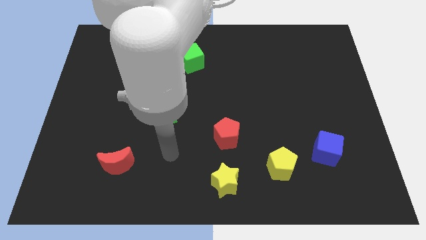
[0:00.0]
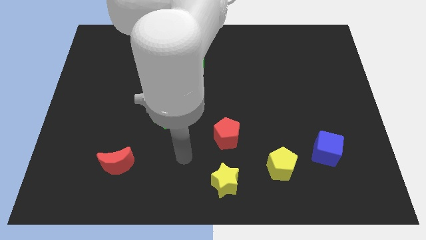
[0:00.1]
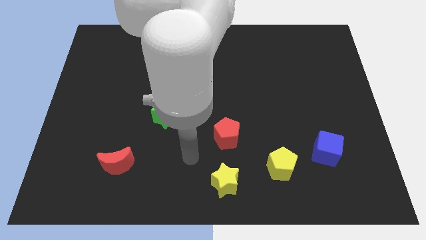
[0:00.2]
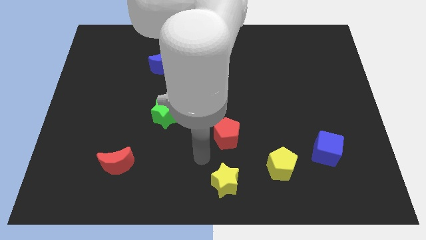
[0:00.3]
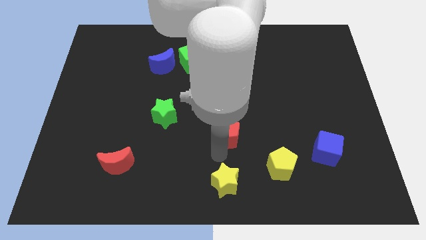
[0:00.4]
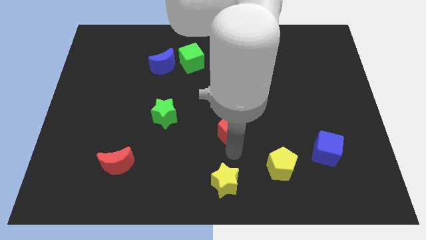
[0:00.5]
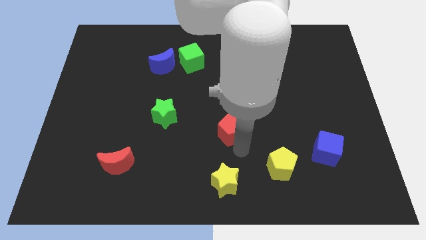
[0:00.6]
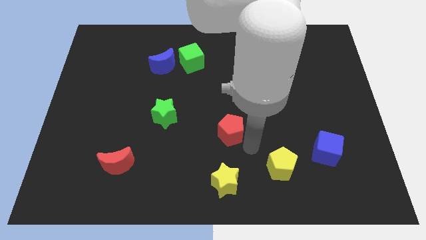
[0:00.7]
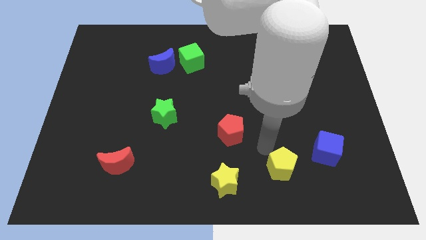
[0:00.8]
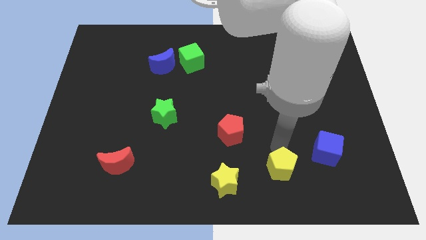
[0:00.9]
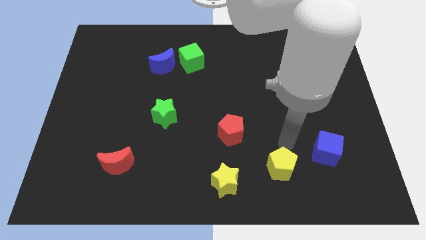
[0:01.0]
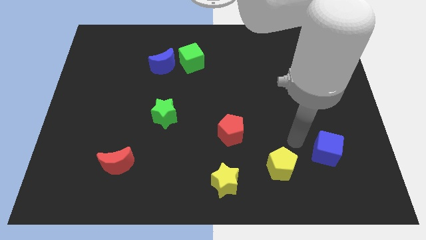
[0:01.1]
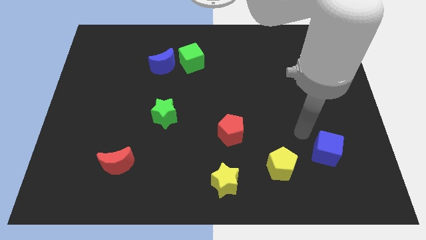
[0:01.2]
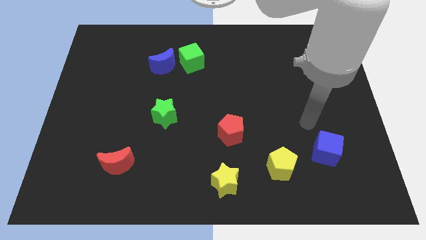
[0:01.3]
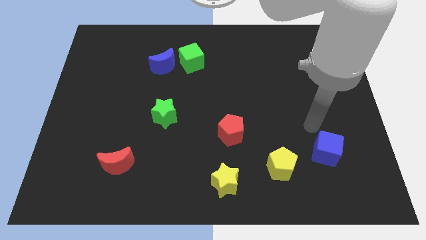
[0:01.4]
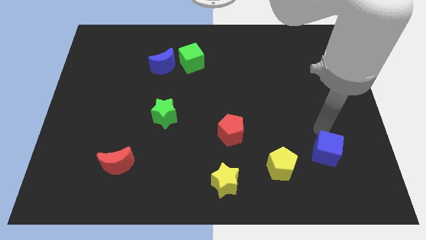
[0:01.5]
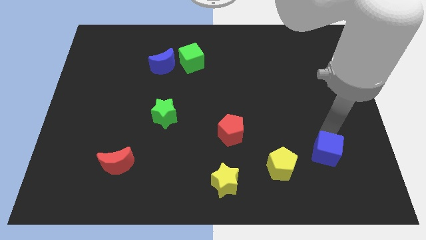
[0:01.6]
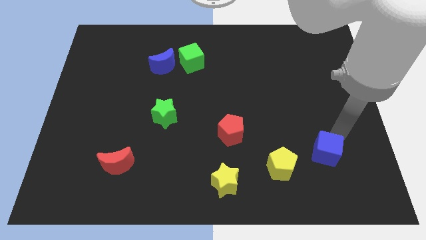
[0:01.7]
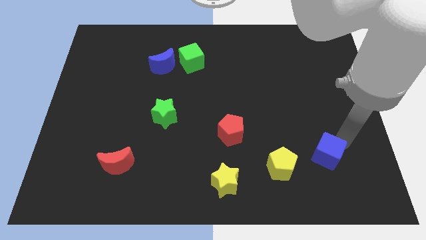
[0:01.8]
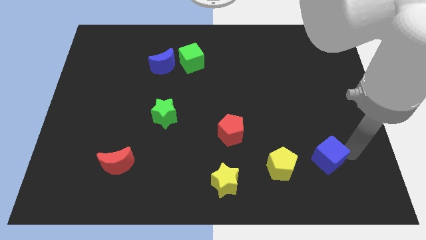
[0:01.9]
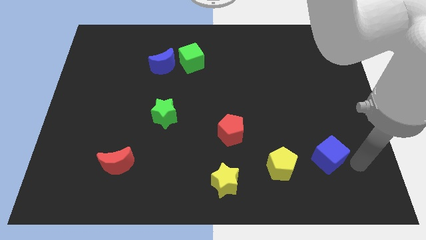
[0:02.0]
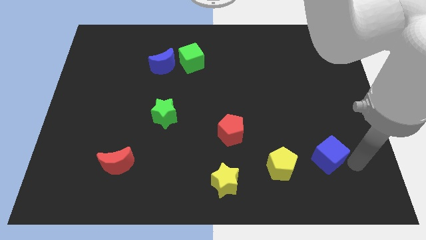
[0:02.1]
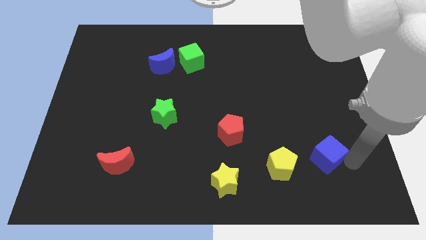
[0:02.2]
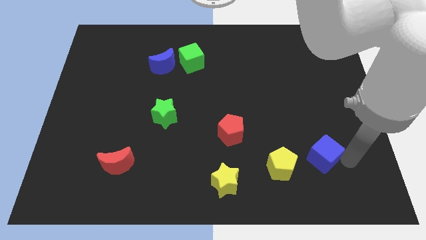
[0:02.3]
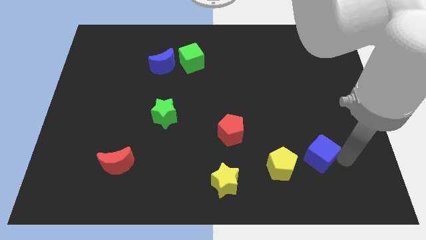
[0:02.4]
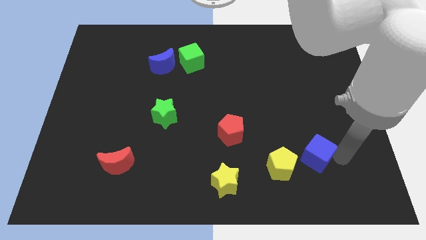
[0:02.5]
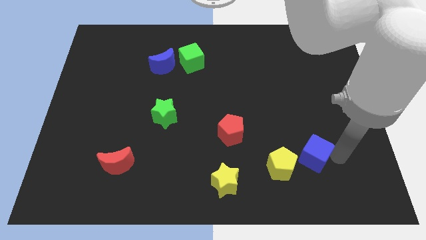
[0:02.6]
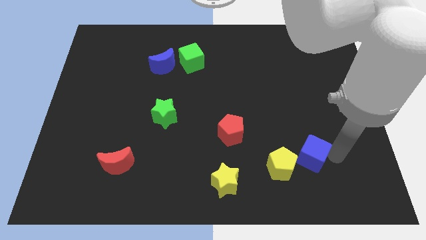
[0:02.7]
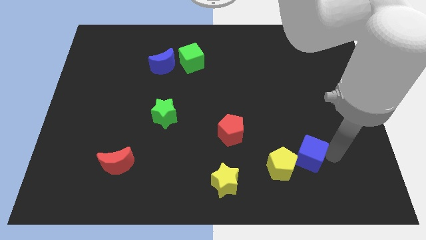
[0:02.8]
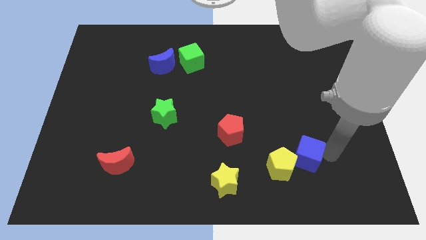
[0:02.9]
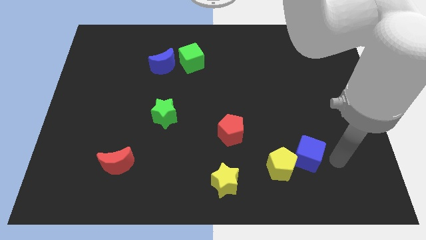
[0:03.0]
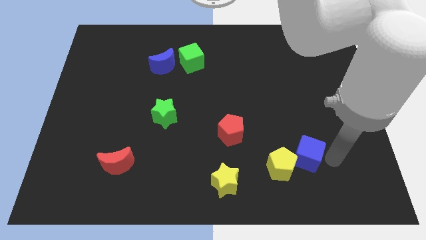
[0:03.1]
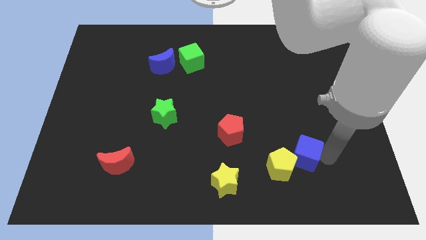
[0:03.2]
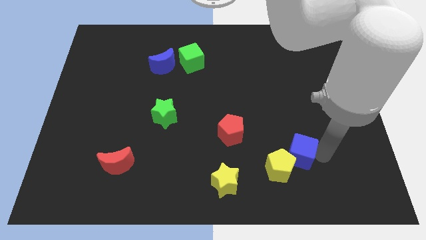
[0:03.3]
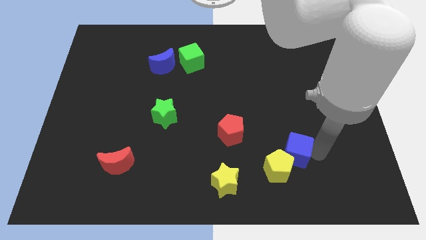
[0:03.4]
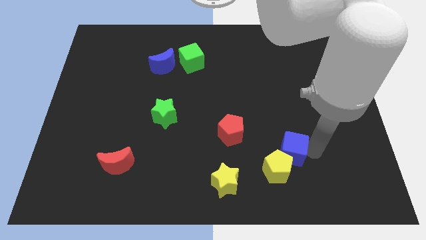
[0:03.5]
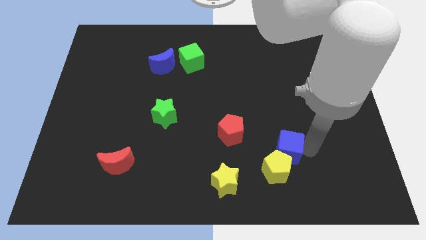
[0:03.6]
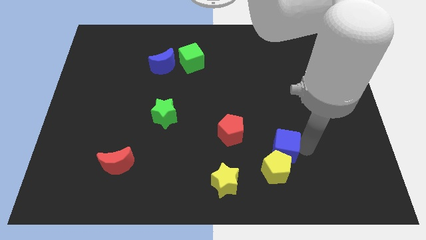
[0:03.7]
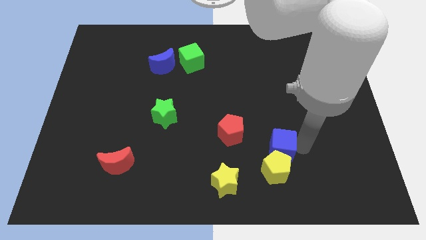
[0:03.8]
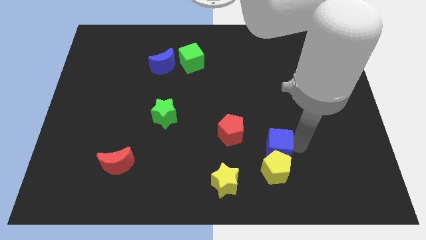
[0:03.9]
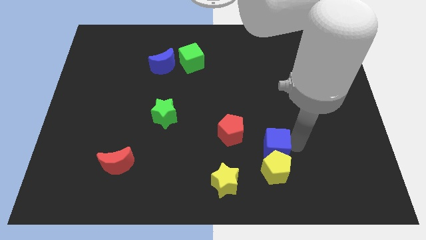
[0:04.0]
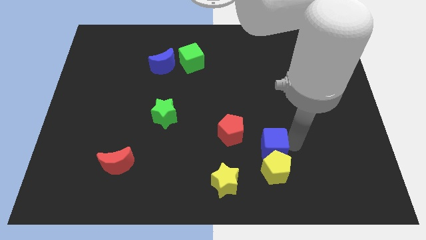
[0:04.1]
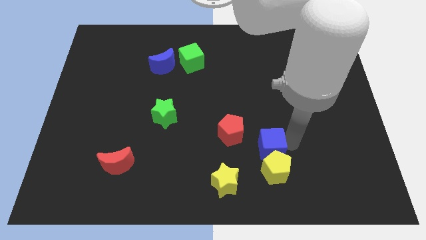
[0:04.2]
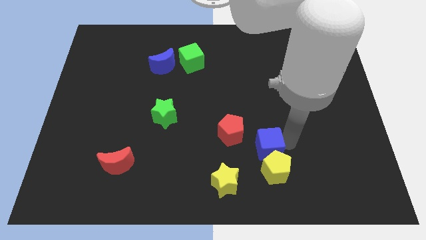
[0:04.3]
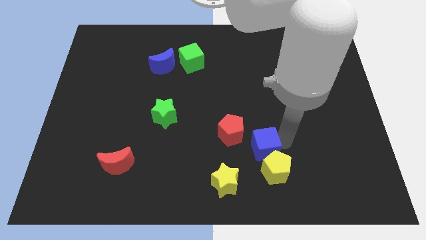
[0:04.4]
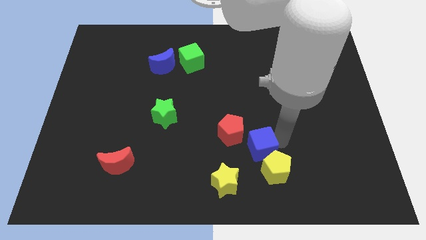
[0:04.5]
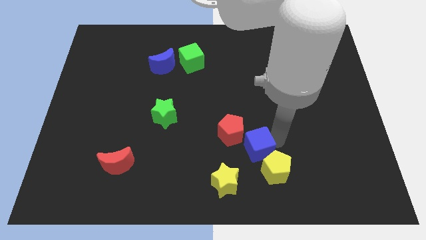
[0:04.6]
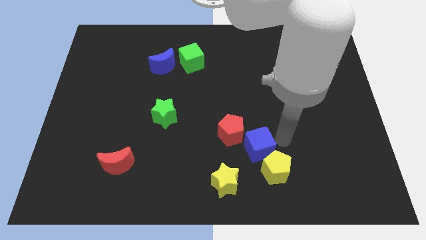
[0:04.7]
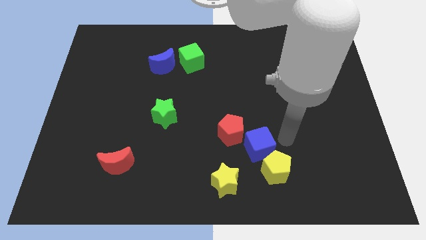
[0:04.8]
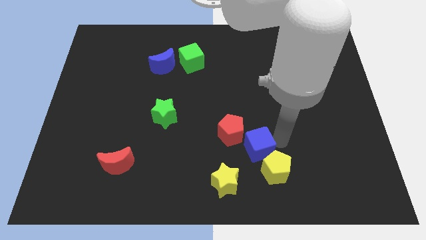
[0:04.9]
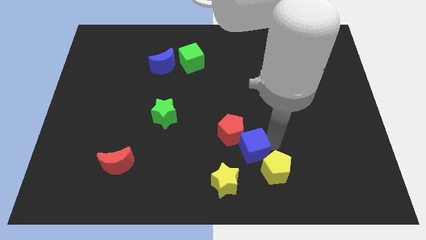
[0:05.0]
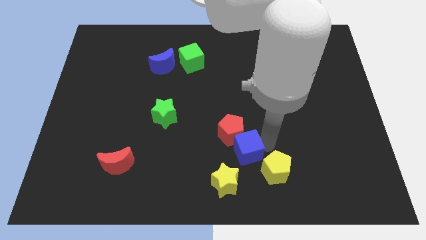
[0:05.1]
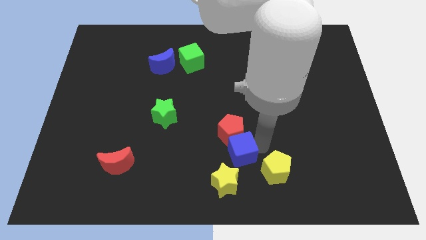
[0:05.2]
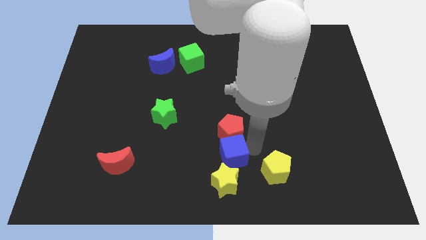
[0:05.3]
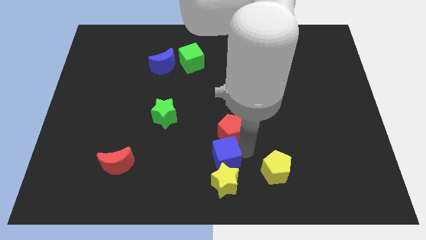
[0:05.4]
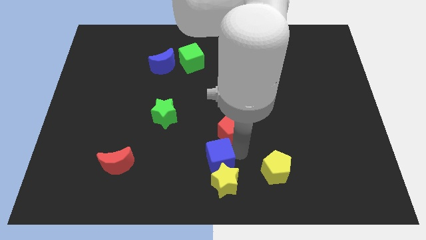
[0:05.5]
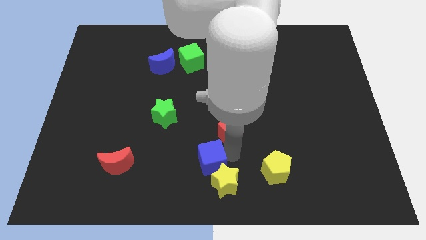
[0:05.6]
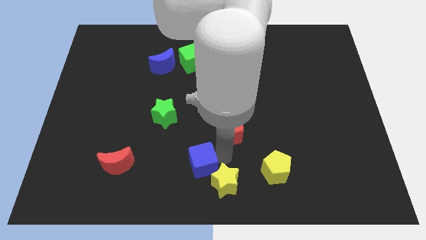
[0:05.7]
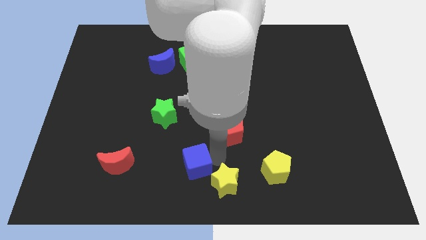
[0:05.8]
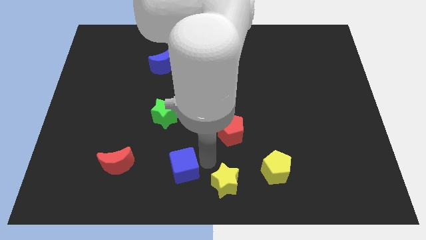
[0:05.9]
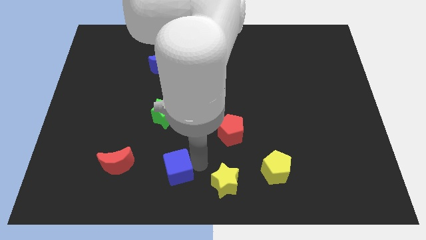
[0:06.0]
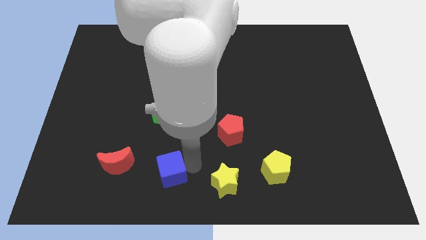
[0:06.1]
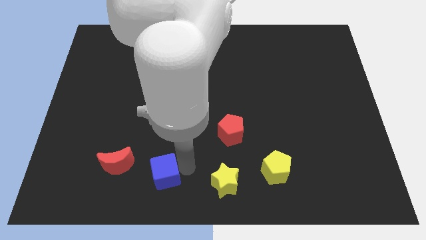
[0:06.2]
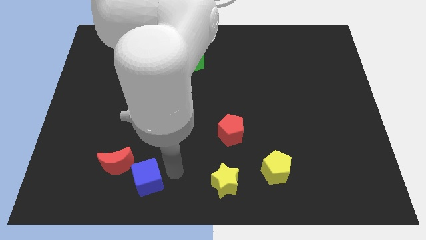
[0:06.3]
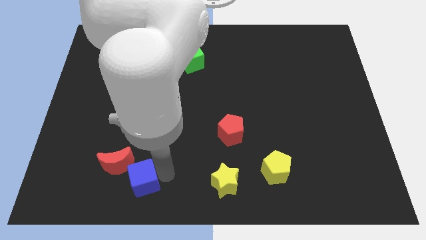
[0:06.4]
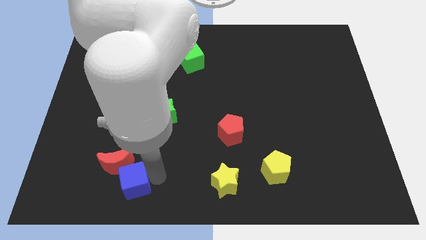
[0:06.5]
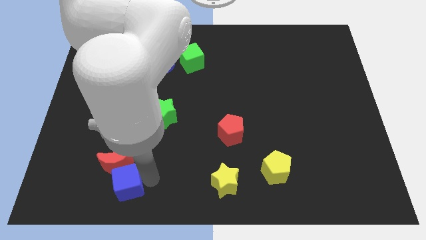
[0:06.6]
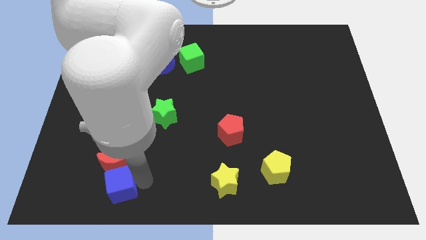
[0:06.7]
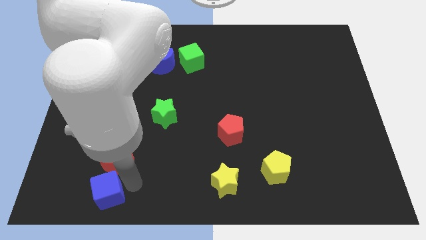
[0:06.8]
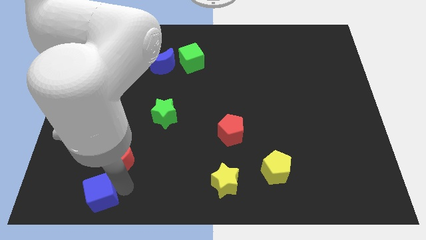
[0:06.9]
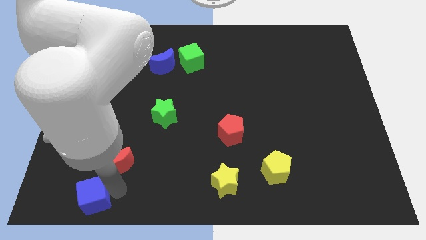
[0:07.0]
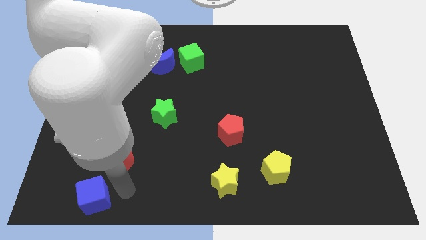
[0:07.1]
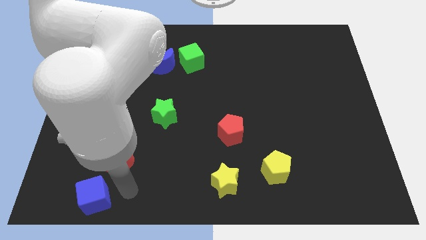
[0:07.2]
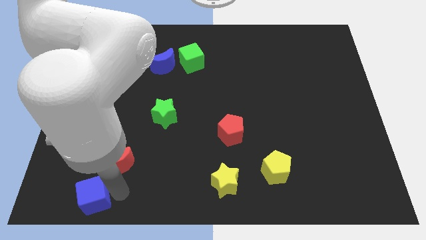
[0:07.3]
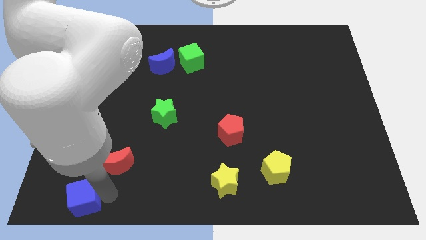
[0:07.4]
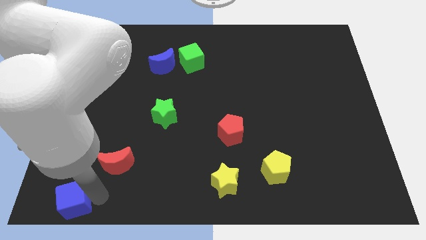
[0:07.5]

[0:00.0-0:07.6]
move the blue cube to the lower left corner

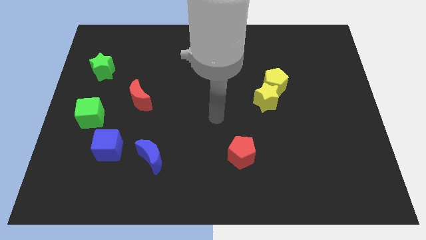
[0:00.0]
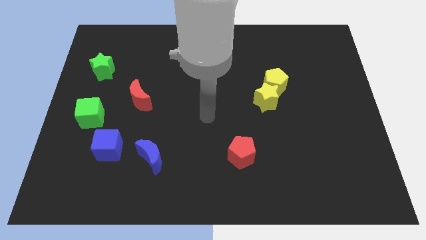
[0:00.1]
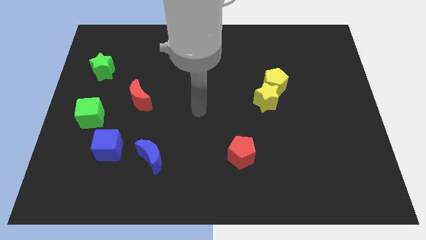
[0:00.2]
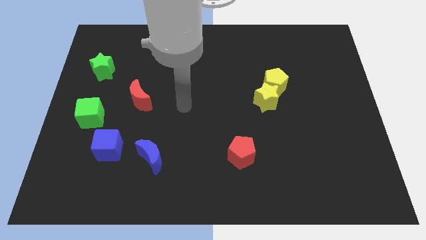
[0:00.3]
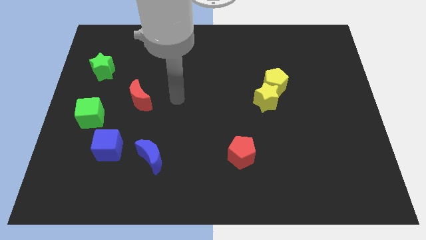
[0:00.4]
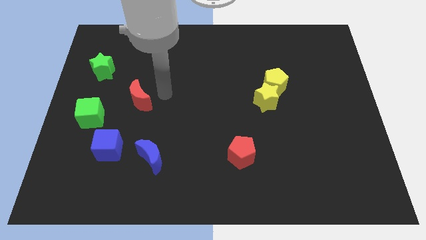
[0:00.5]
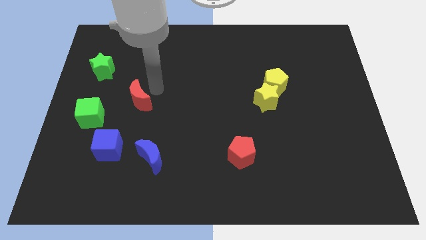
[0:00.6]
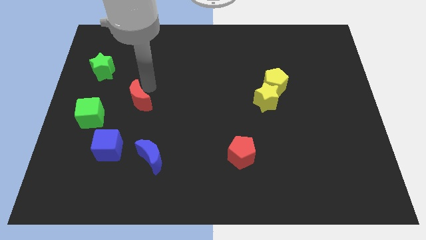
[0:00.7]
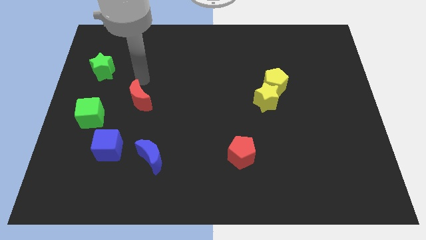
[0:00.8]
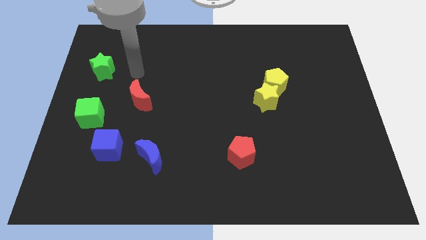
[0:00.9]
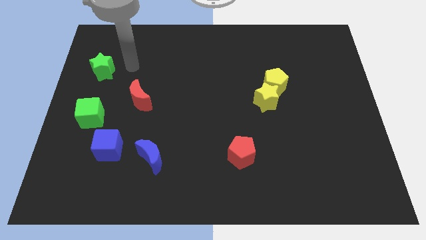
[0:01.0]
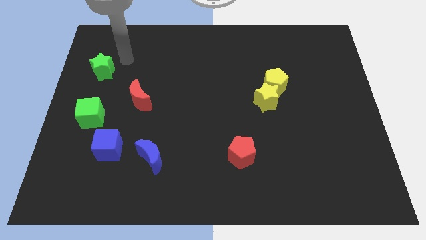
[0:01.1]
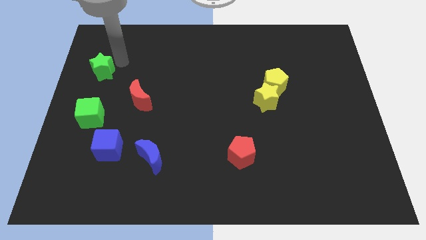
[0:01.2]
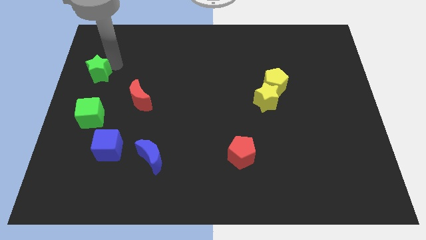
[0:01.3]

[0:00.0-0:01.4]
push the green star to the left side of the board
